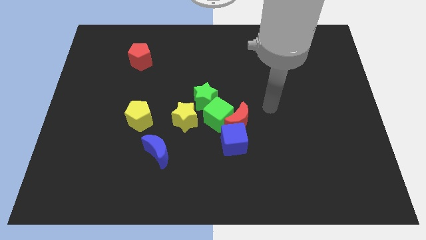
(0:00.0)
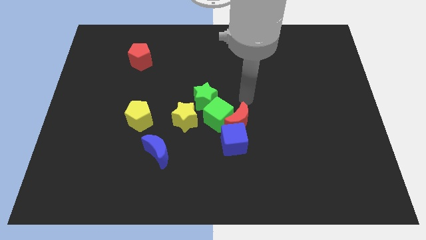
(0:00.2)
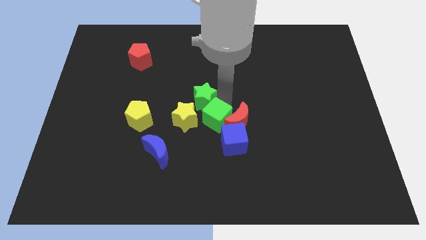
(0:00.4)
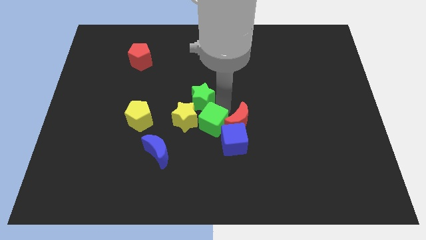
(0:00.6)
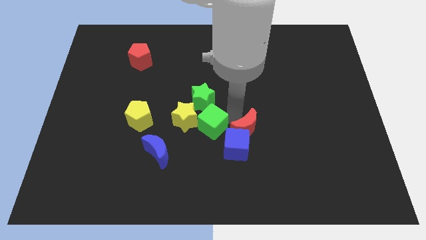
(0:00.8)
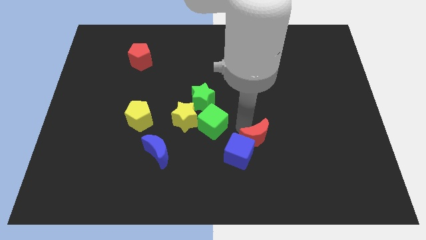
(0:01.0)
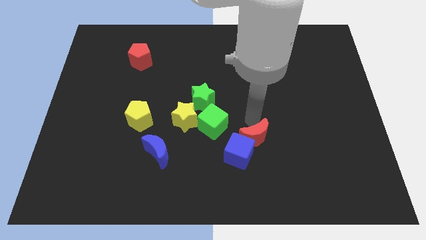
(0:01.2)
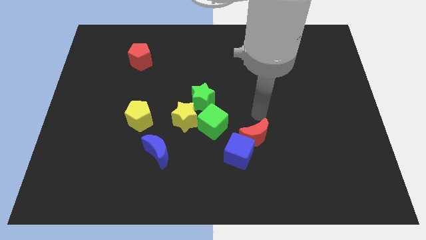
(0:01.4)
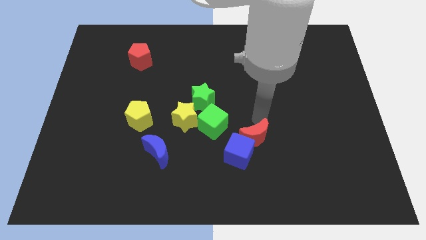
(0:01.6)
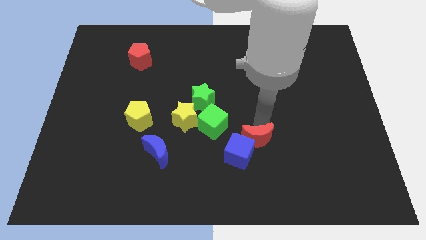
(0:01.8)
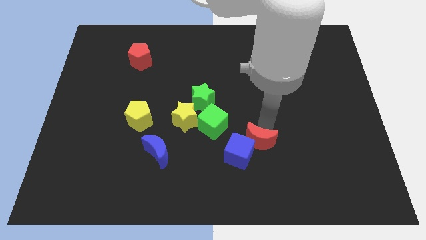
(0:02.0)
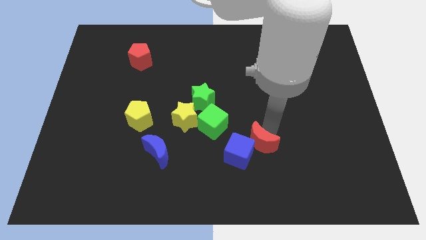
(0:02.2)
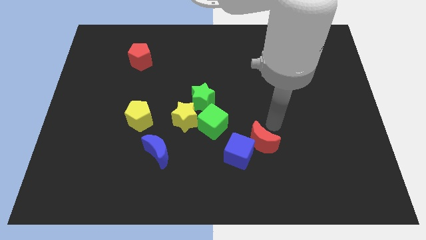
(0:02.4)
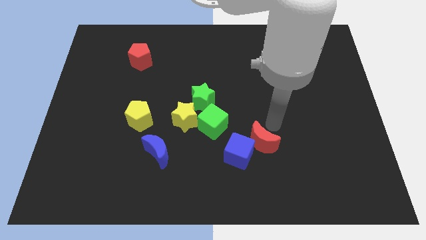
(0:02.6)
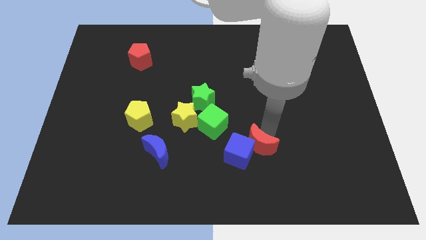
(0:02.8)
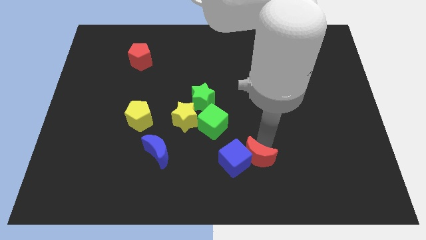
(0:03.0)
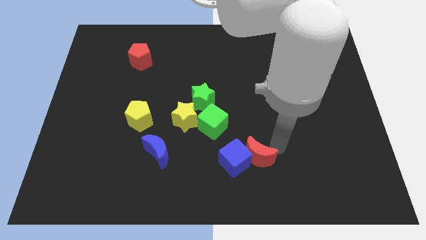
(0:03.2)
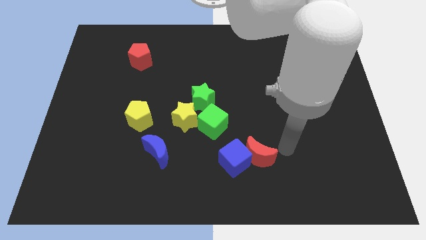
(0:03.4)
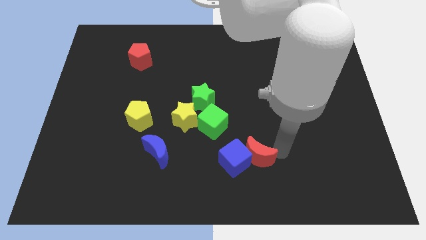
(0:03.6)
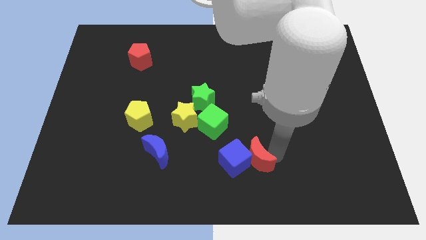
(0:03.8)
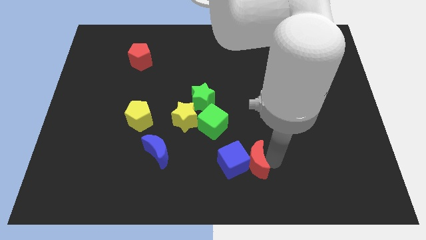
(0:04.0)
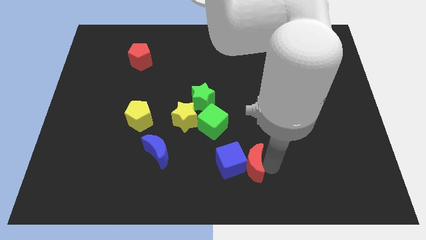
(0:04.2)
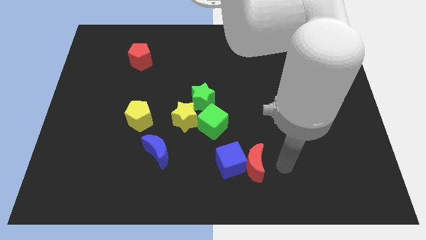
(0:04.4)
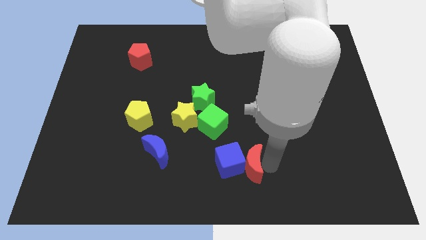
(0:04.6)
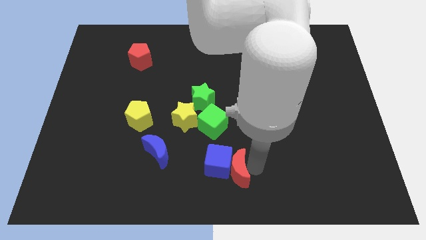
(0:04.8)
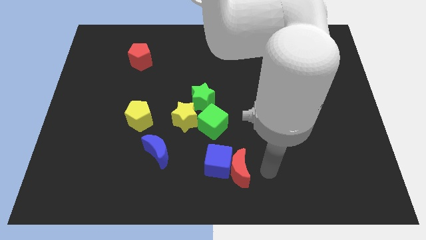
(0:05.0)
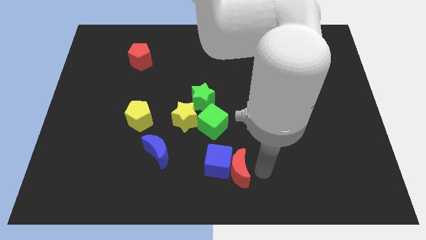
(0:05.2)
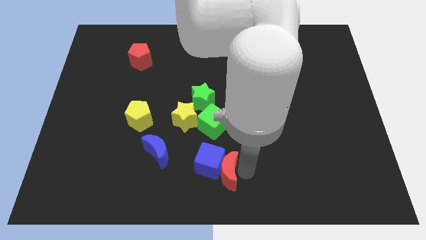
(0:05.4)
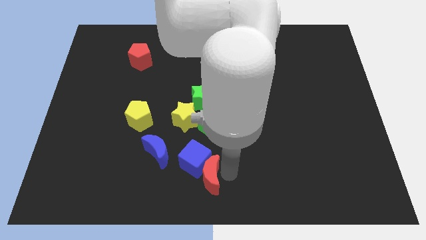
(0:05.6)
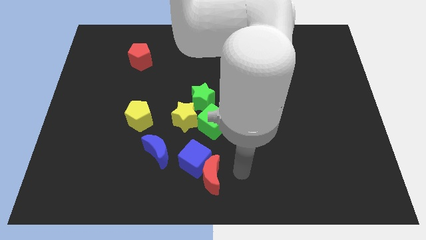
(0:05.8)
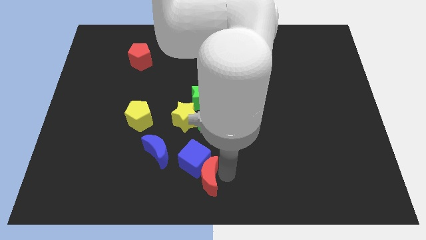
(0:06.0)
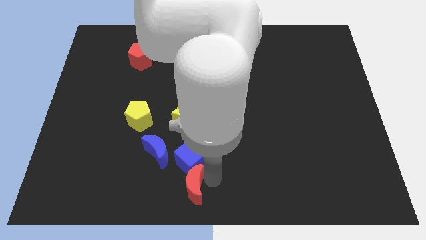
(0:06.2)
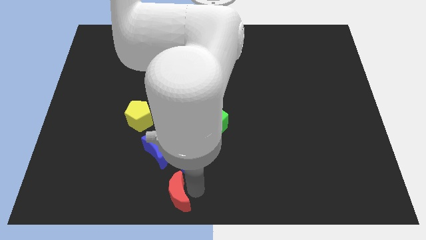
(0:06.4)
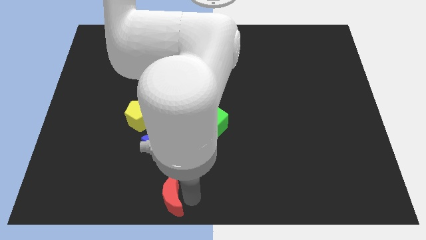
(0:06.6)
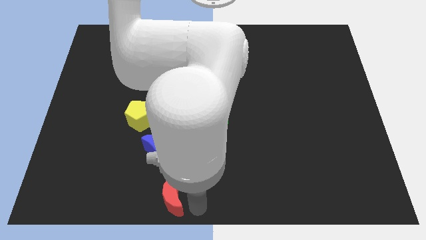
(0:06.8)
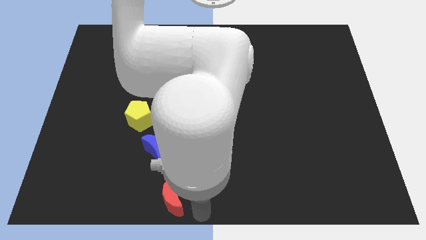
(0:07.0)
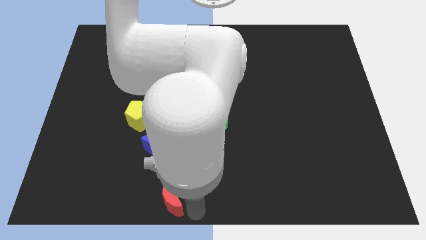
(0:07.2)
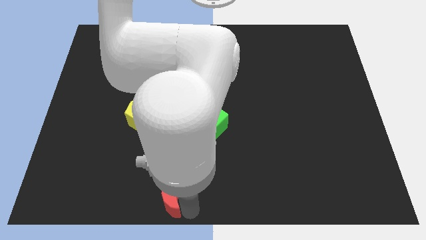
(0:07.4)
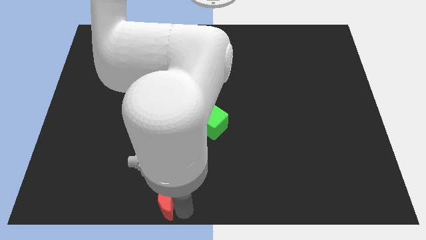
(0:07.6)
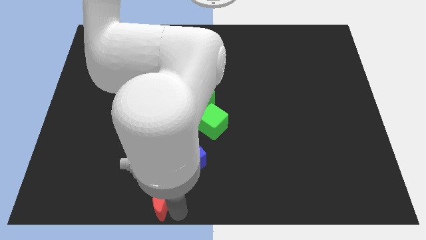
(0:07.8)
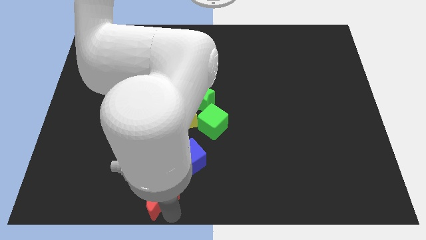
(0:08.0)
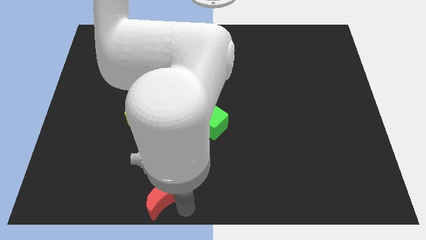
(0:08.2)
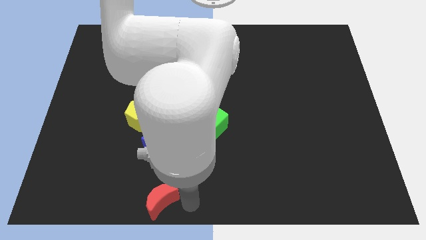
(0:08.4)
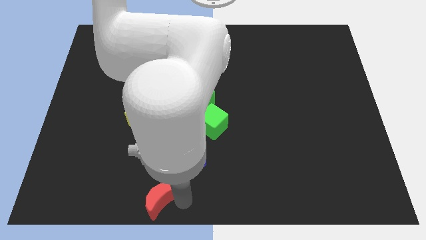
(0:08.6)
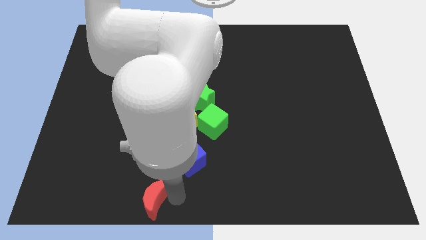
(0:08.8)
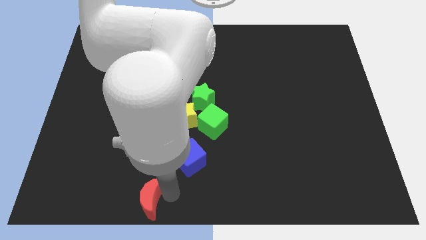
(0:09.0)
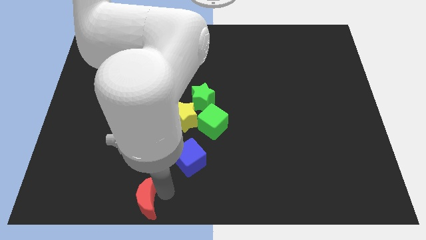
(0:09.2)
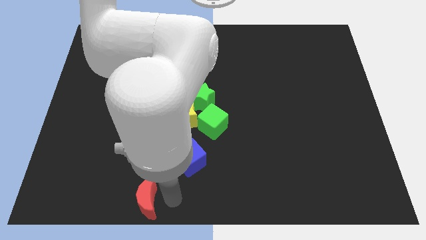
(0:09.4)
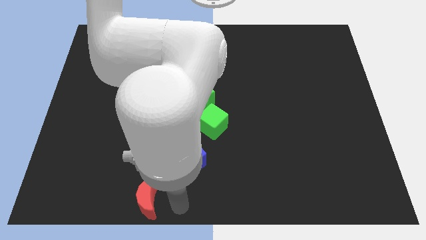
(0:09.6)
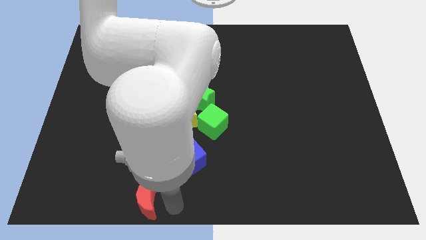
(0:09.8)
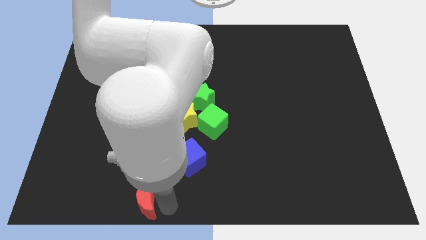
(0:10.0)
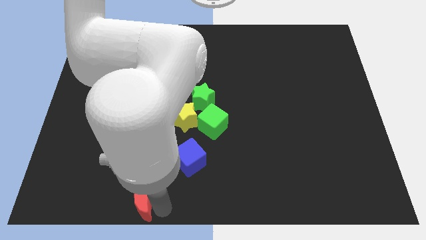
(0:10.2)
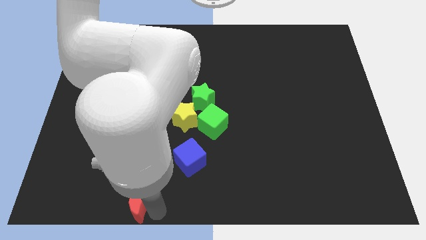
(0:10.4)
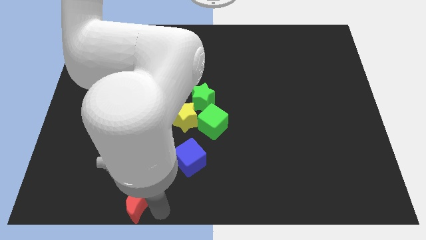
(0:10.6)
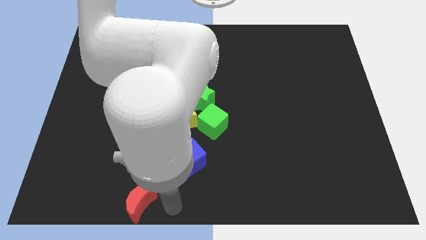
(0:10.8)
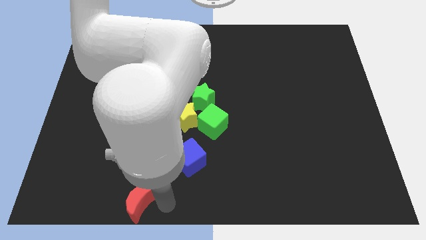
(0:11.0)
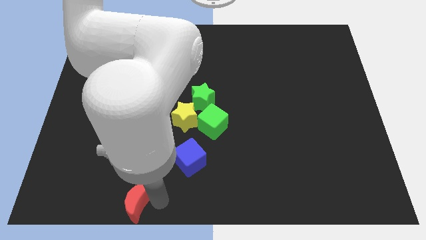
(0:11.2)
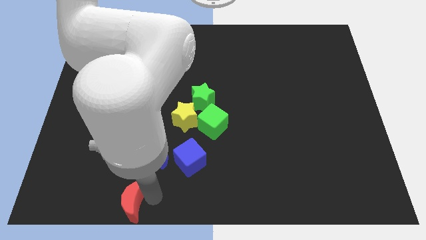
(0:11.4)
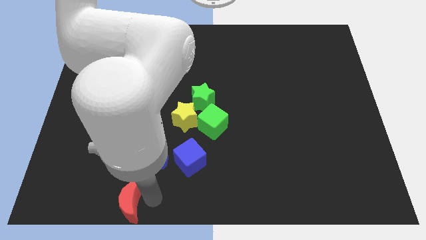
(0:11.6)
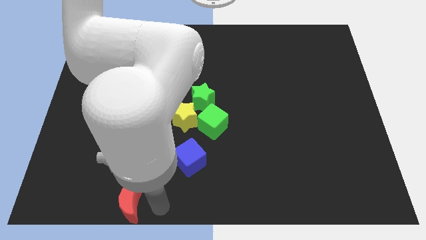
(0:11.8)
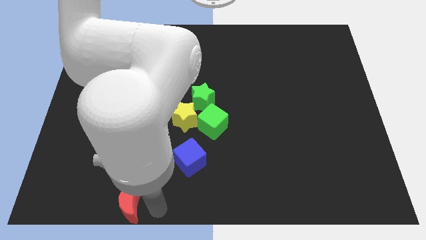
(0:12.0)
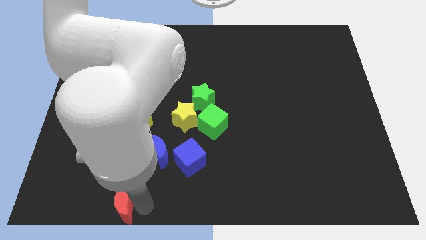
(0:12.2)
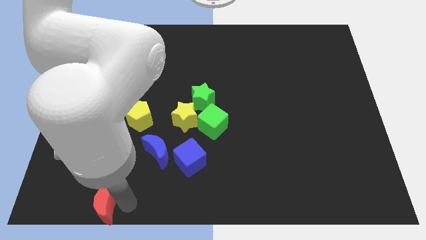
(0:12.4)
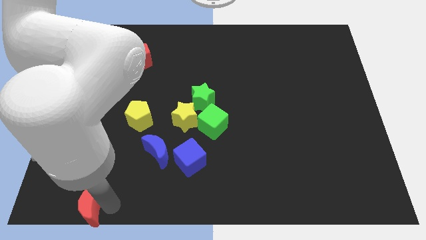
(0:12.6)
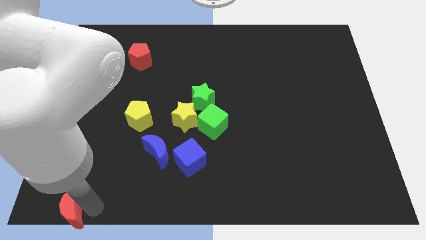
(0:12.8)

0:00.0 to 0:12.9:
move the red moon to the lower left corner

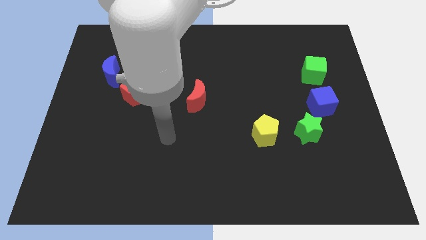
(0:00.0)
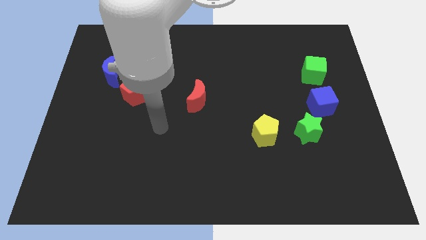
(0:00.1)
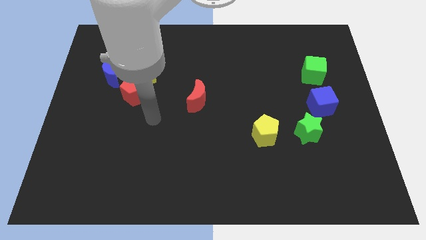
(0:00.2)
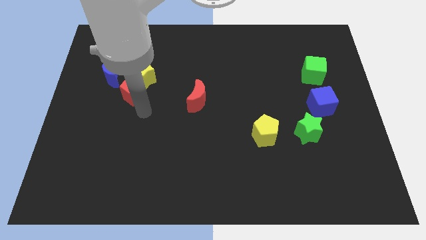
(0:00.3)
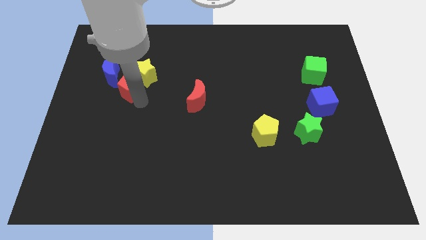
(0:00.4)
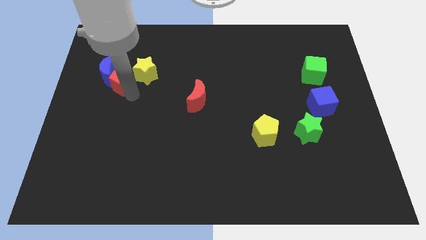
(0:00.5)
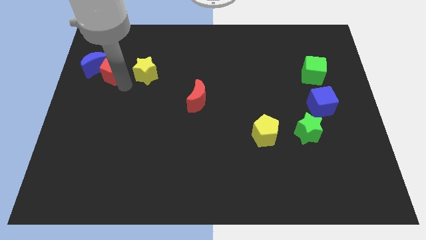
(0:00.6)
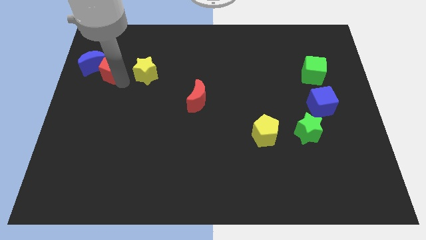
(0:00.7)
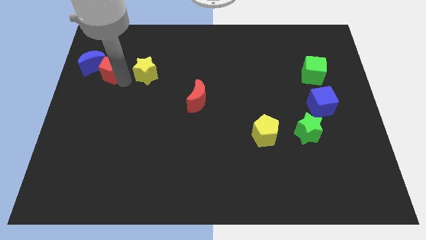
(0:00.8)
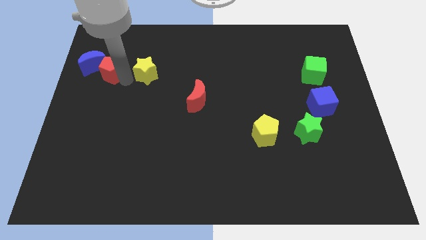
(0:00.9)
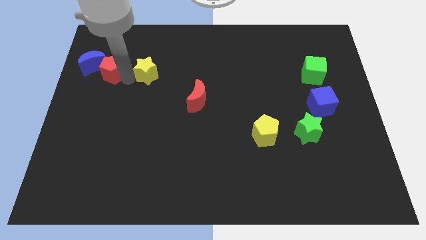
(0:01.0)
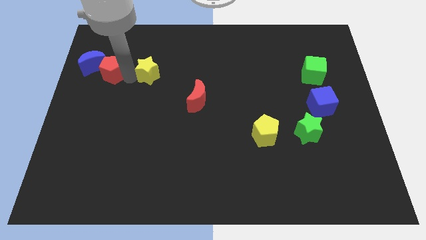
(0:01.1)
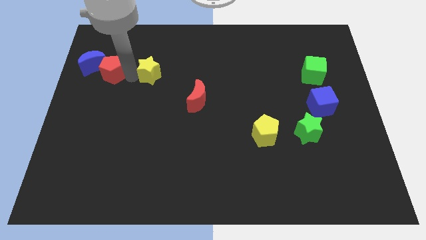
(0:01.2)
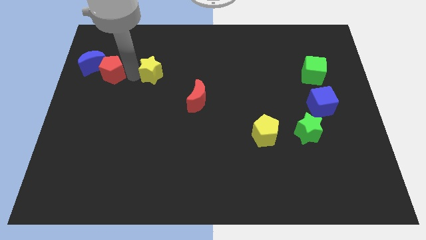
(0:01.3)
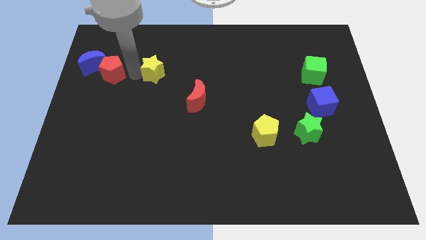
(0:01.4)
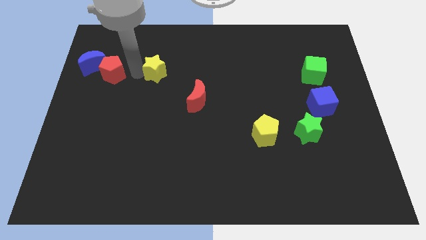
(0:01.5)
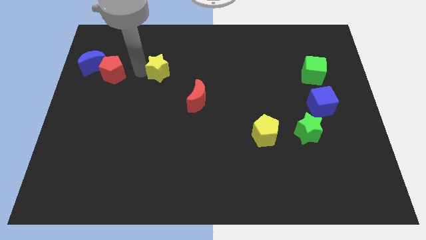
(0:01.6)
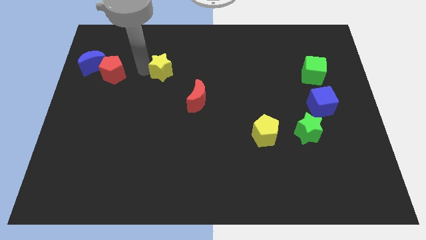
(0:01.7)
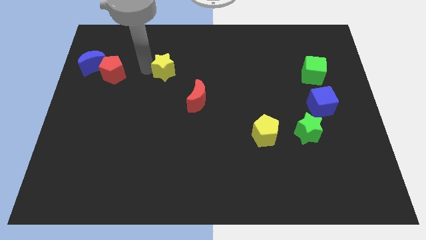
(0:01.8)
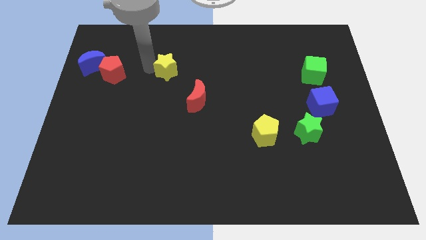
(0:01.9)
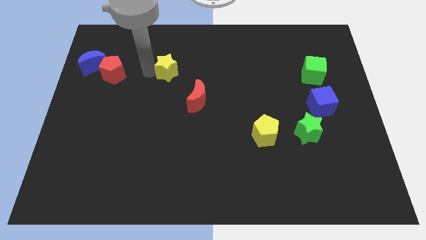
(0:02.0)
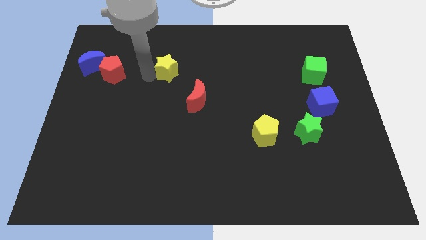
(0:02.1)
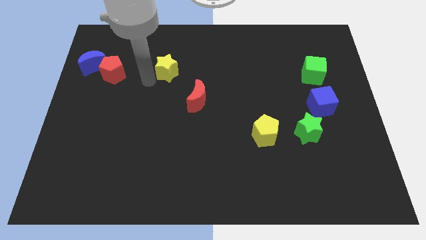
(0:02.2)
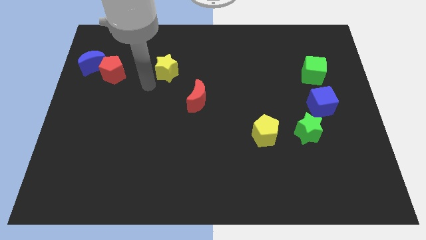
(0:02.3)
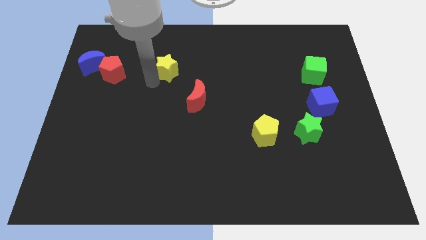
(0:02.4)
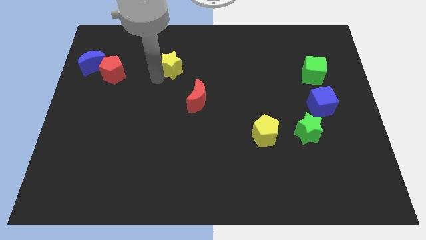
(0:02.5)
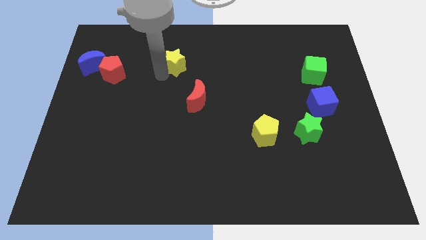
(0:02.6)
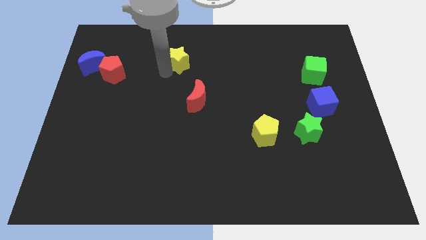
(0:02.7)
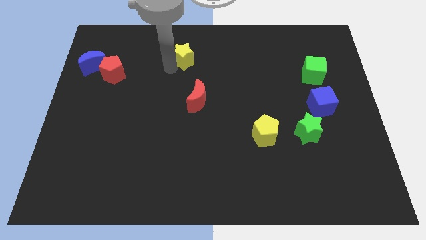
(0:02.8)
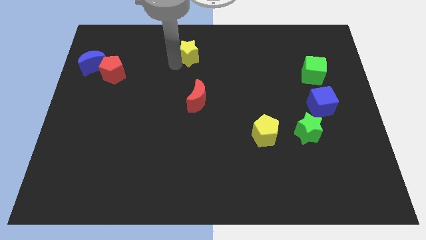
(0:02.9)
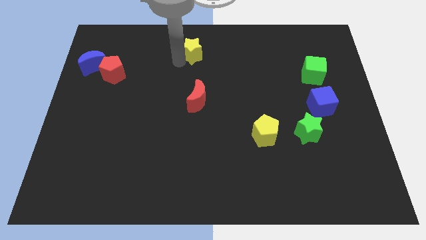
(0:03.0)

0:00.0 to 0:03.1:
move the yellow star to the towards your base
